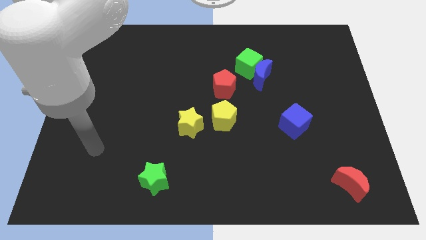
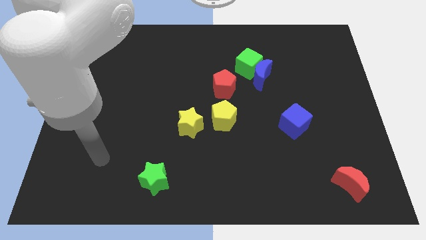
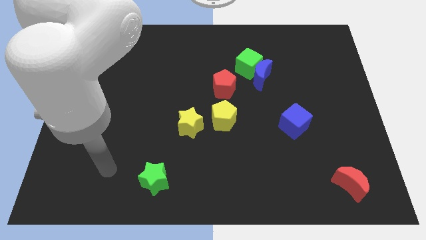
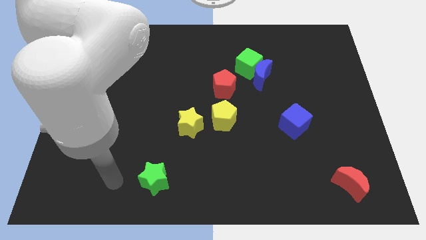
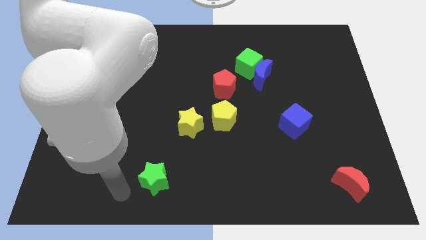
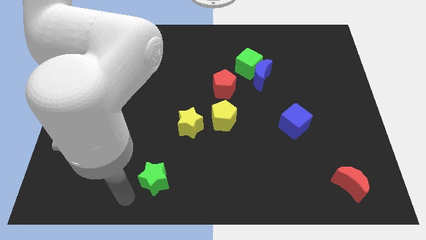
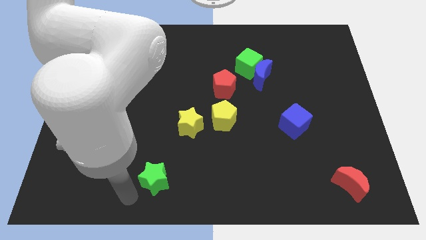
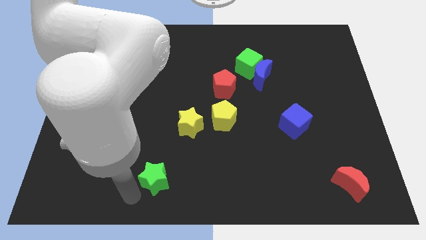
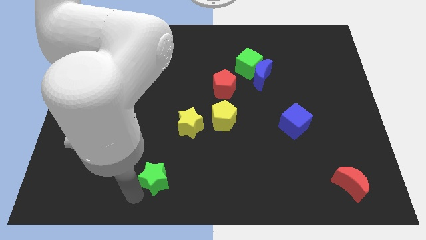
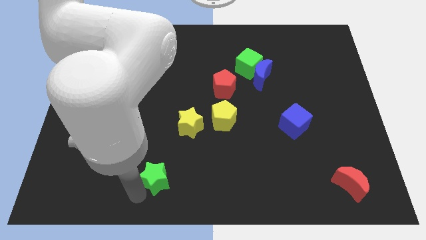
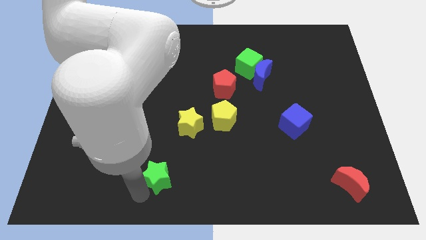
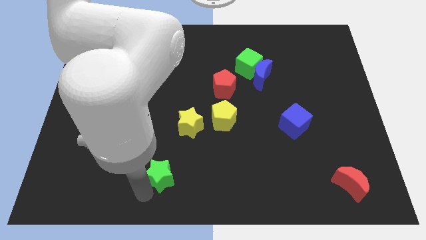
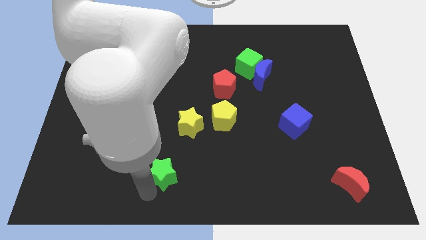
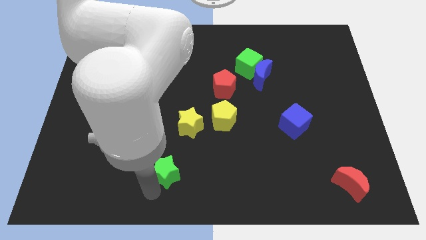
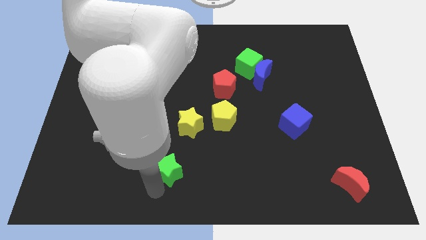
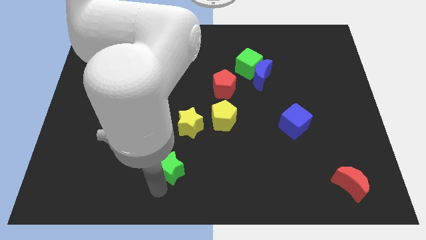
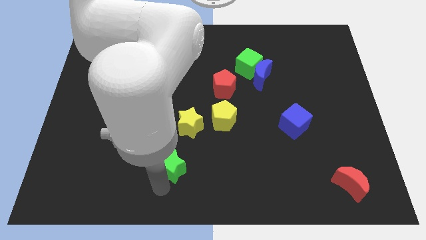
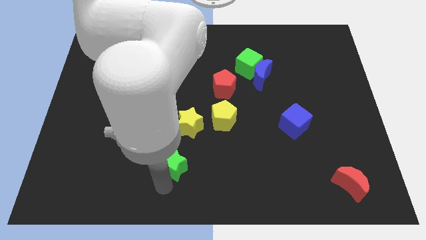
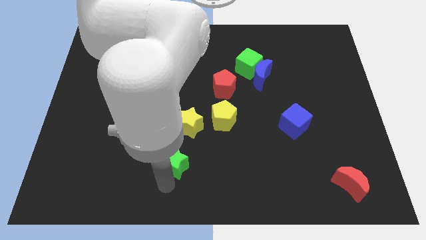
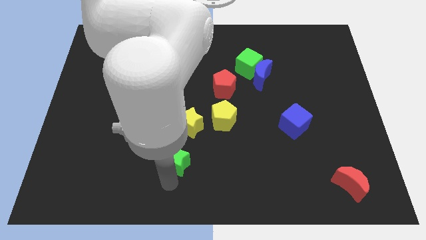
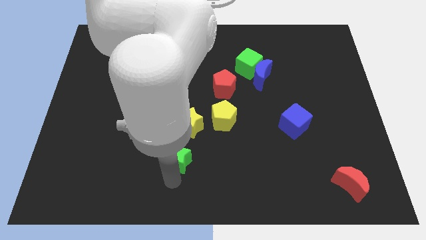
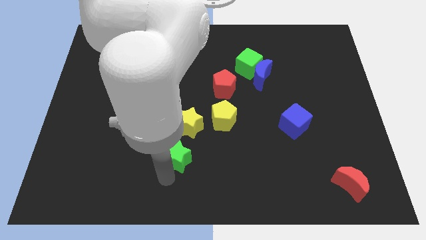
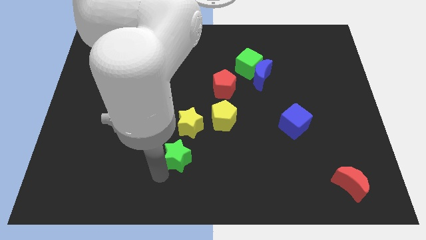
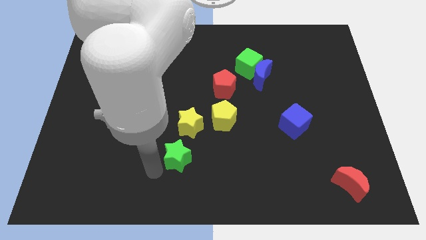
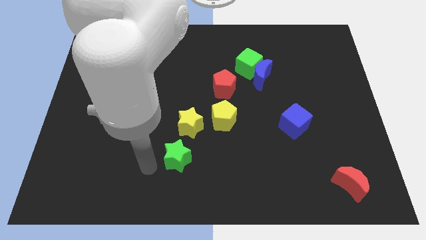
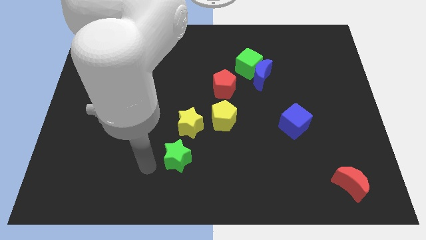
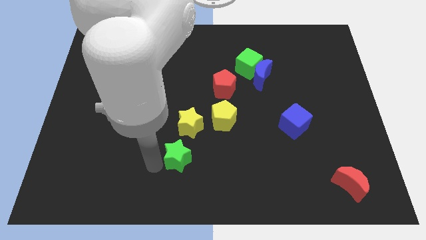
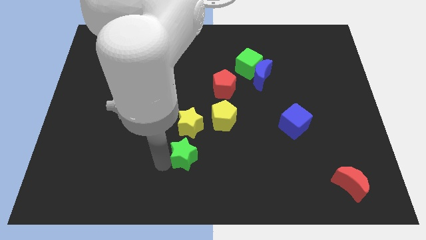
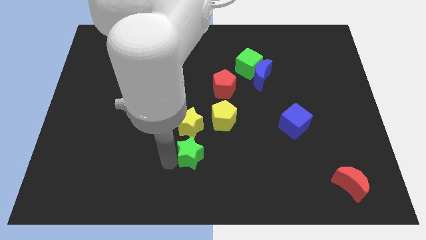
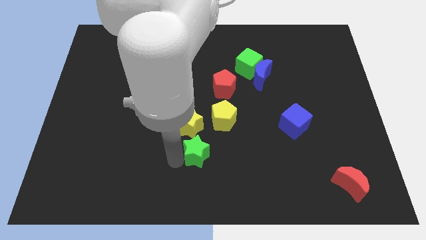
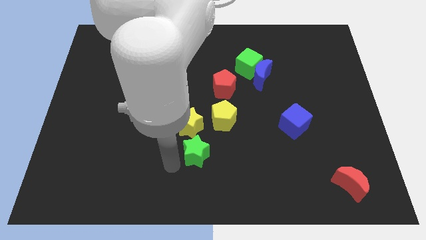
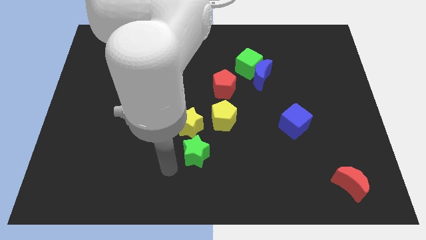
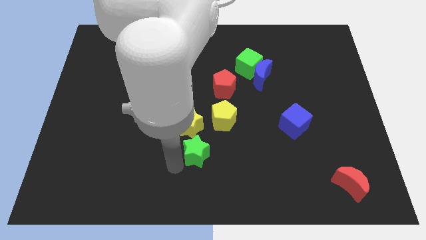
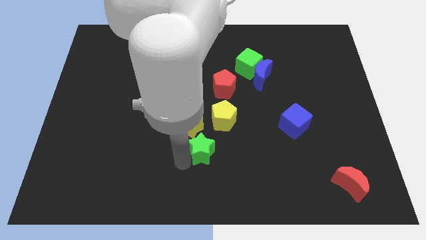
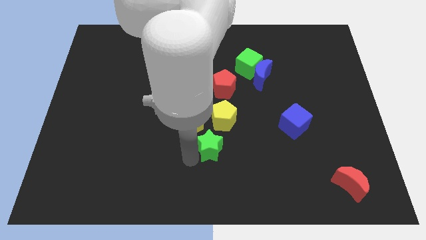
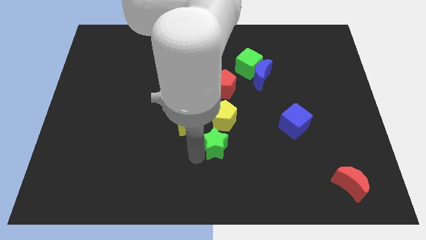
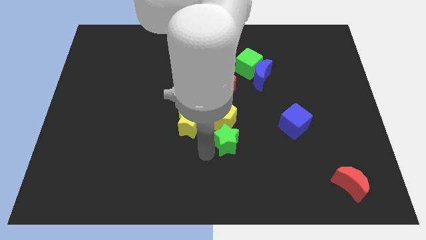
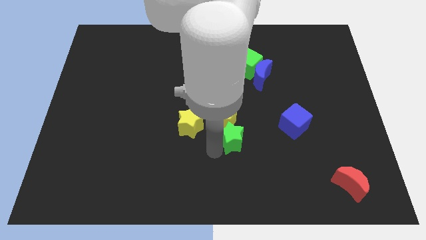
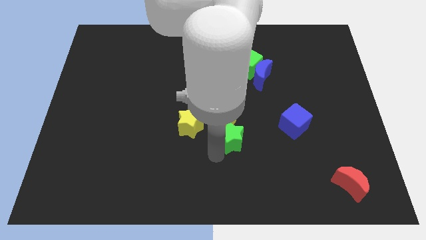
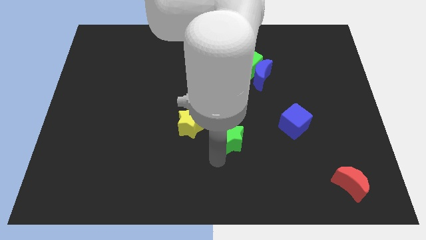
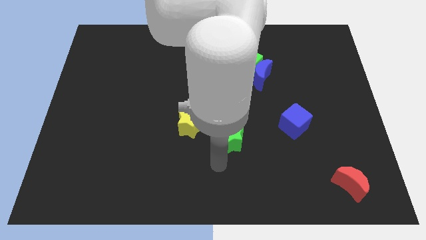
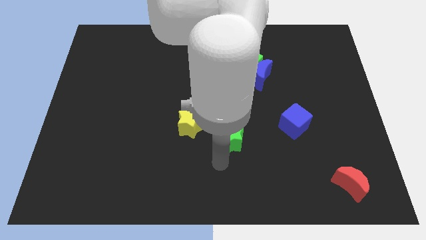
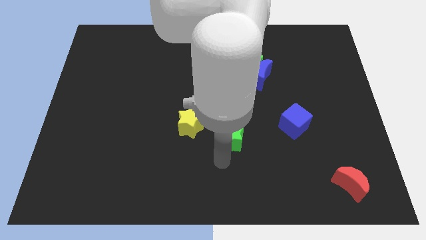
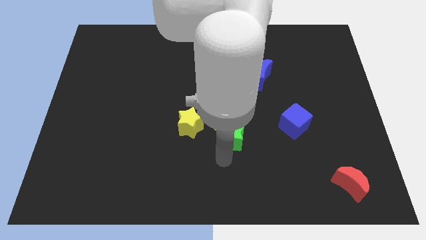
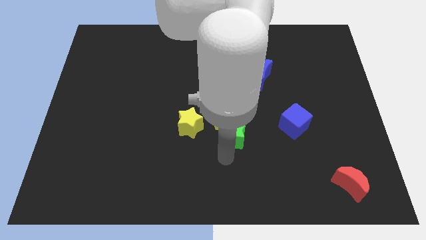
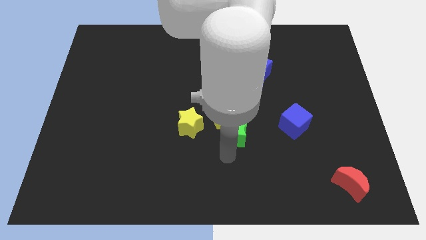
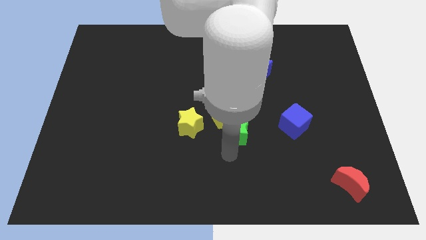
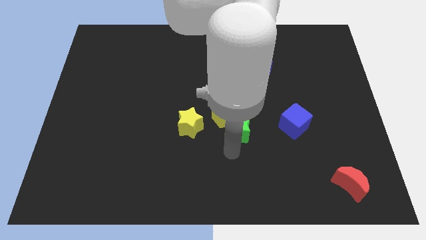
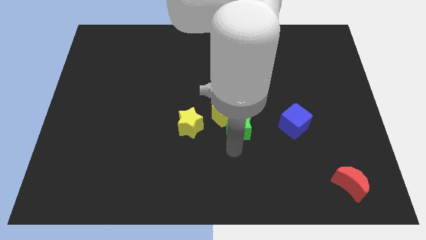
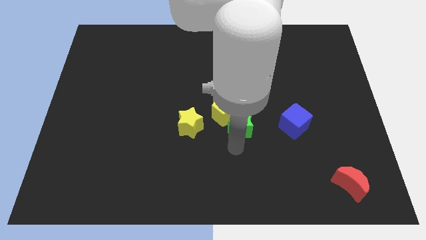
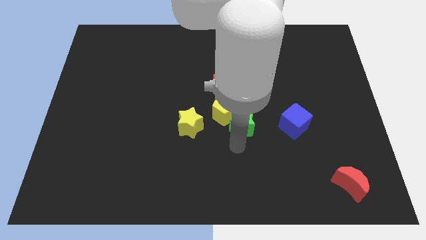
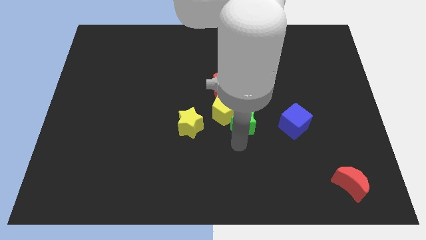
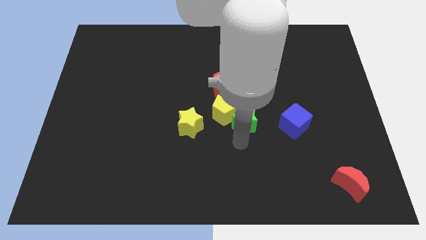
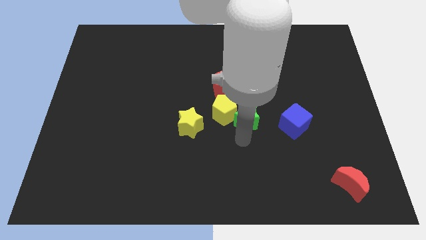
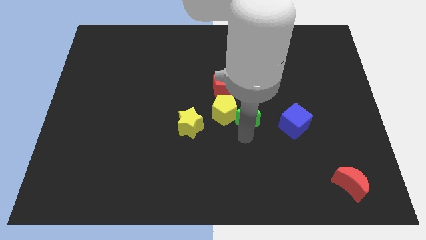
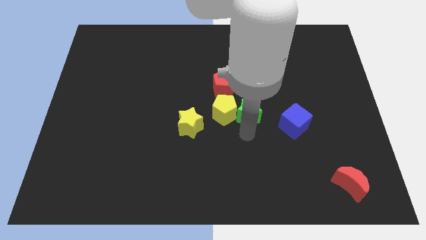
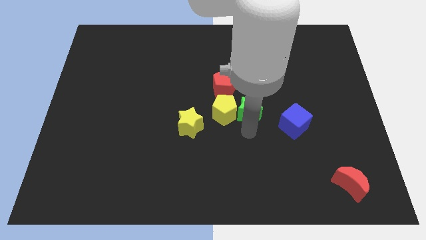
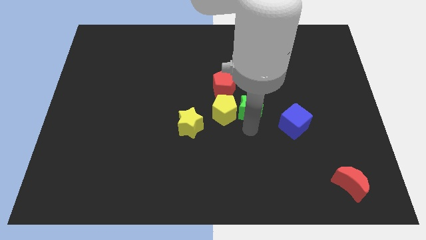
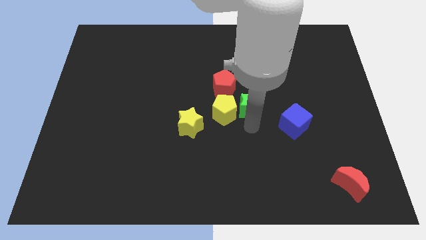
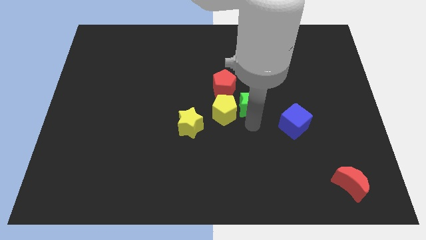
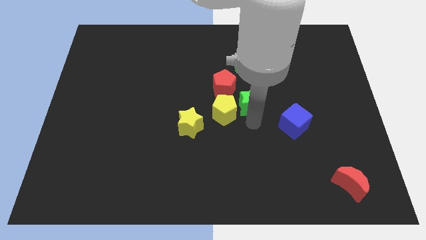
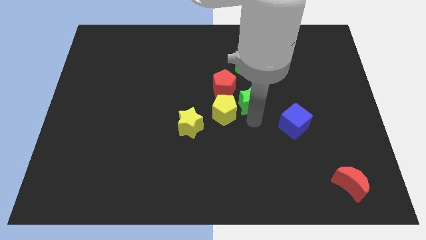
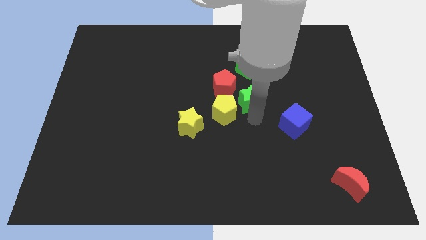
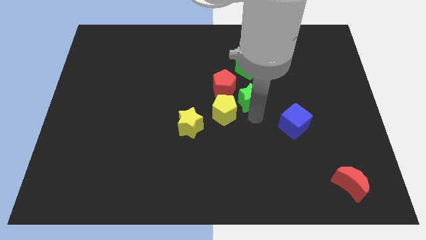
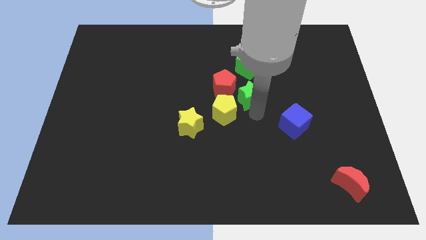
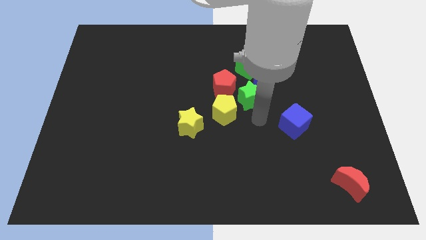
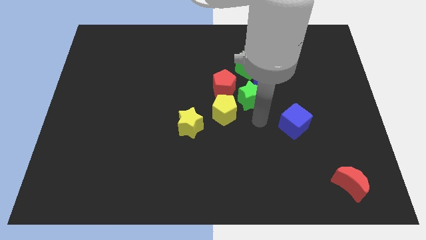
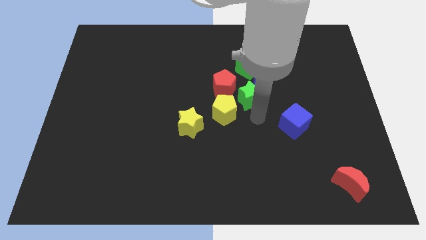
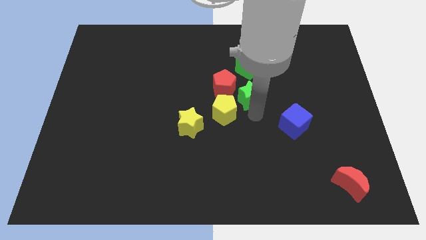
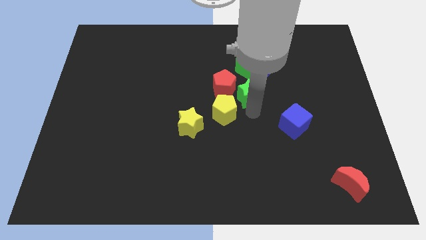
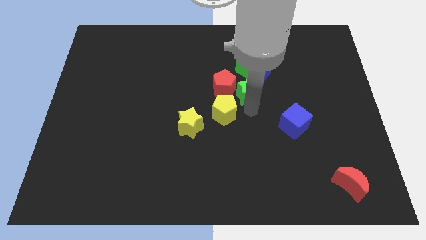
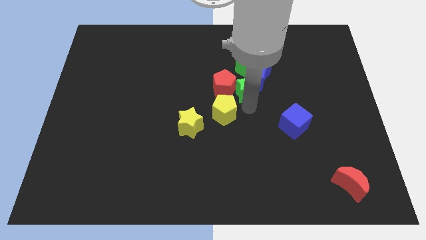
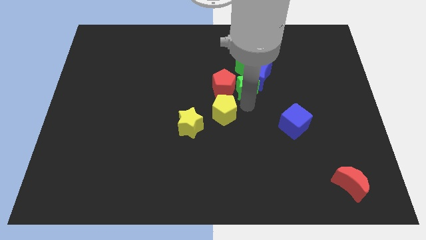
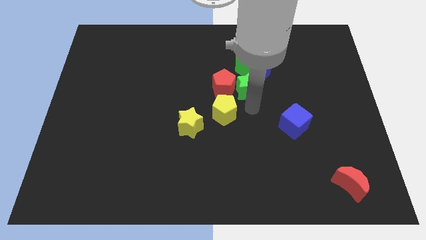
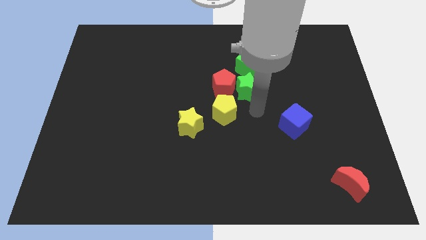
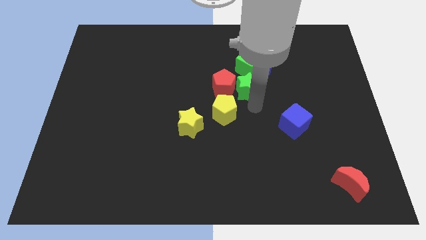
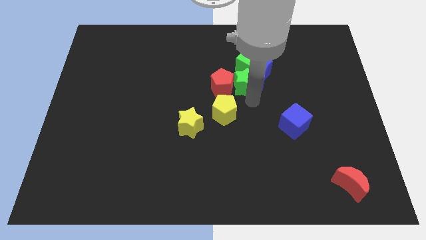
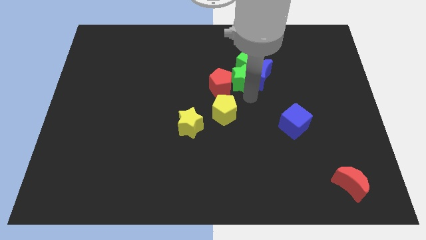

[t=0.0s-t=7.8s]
put the green star next to the green cube
